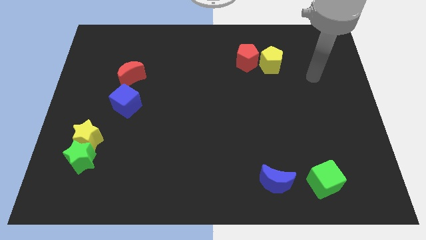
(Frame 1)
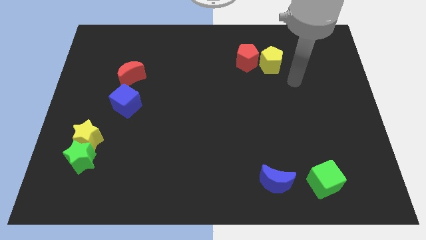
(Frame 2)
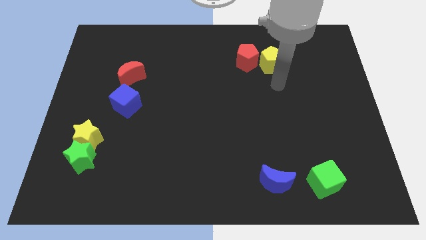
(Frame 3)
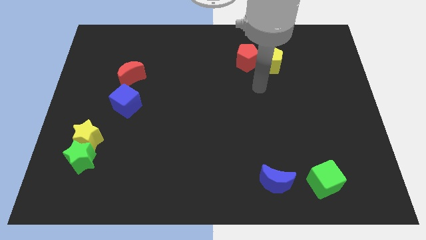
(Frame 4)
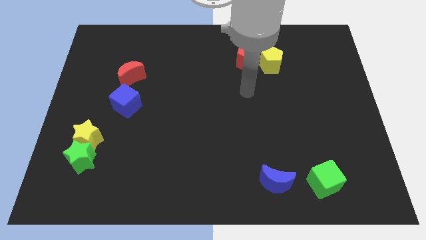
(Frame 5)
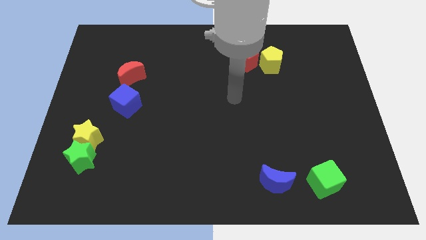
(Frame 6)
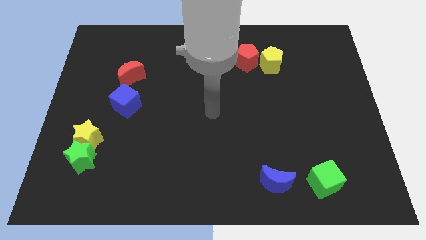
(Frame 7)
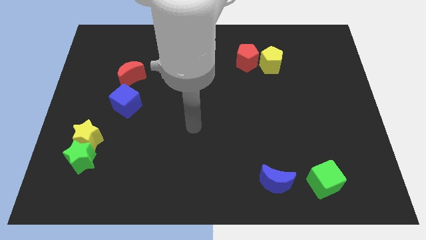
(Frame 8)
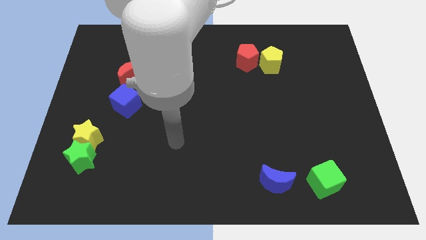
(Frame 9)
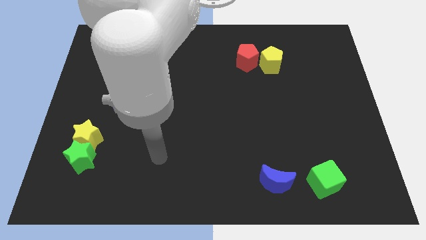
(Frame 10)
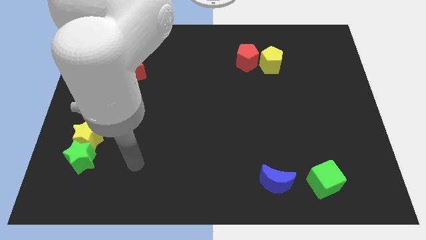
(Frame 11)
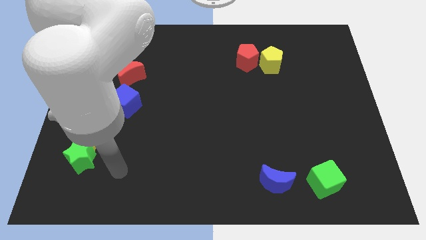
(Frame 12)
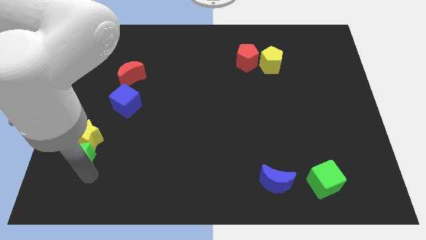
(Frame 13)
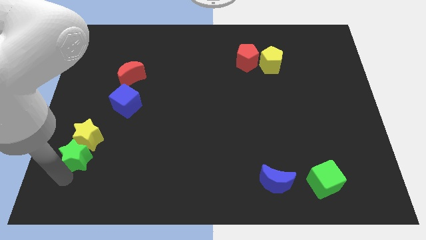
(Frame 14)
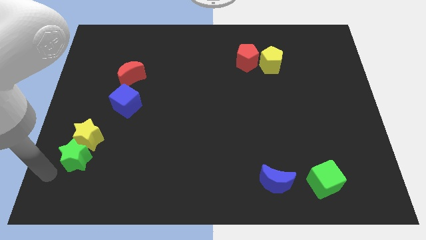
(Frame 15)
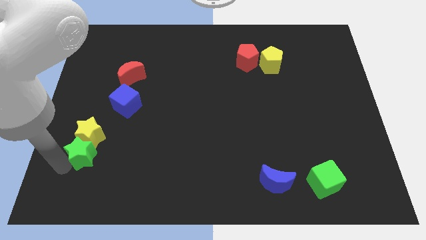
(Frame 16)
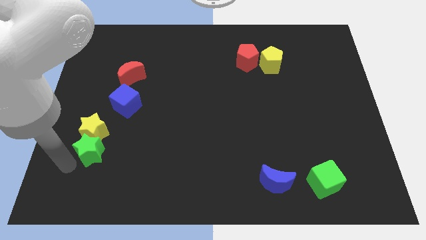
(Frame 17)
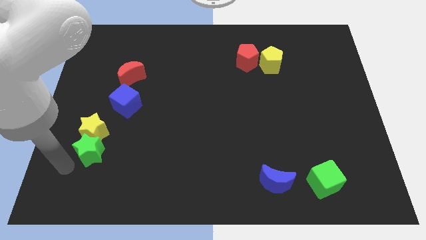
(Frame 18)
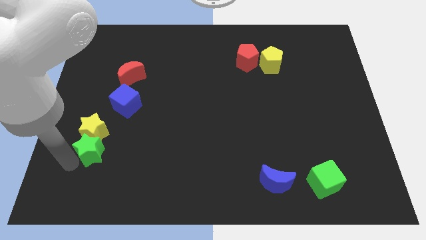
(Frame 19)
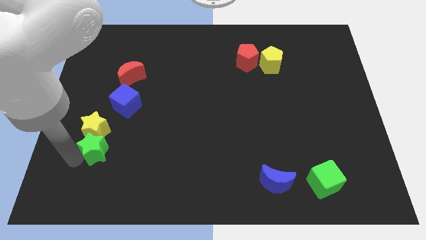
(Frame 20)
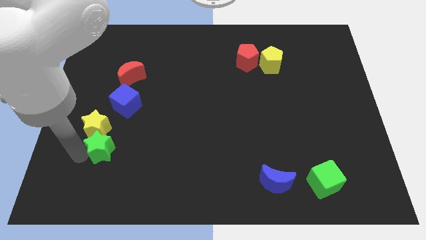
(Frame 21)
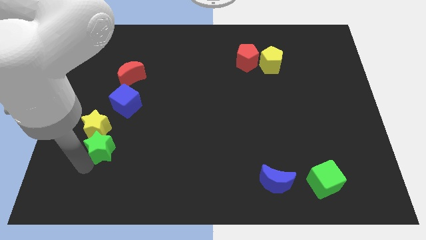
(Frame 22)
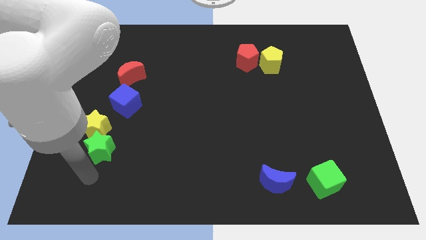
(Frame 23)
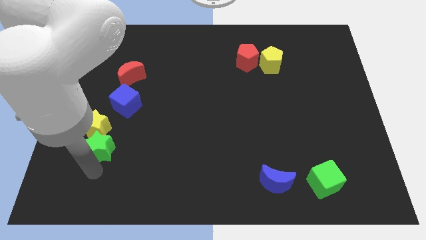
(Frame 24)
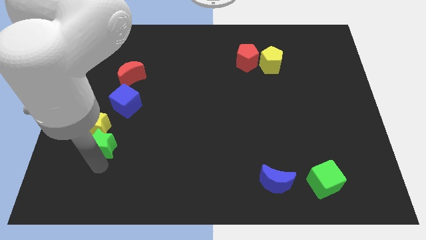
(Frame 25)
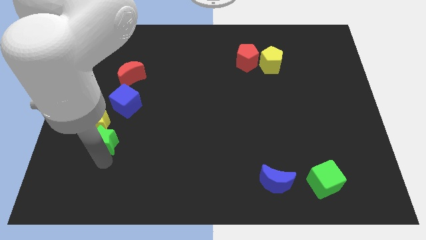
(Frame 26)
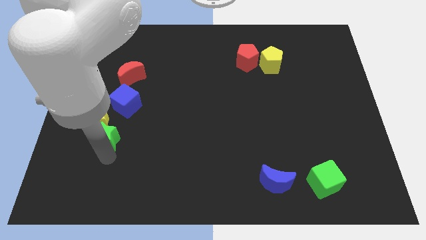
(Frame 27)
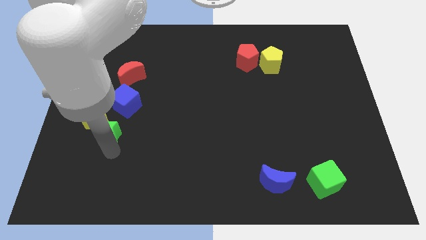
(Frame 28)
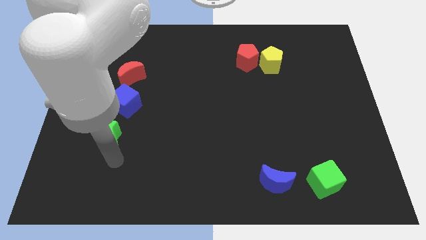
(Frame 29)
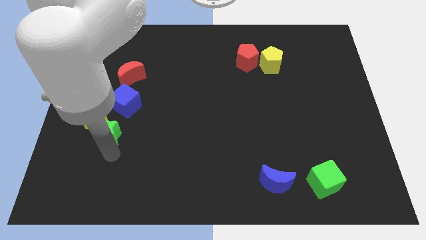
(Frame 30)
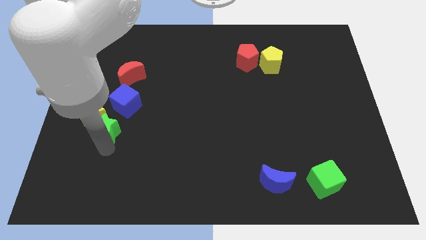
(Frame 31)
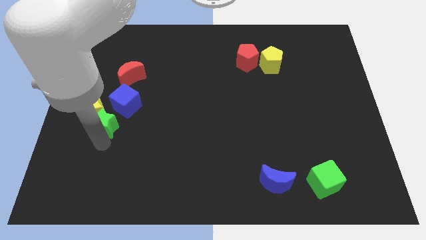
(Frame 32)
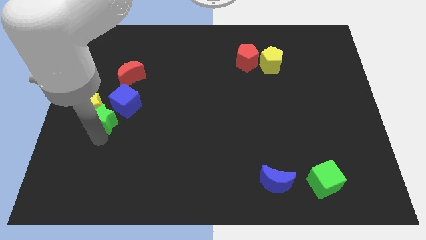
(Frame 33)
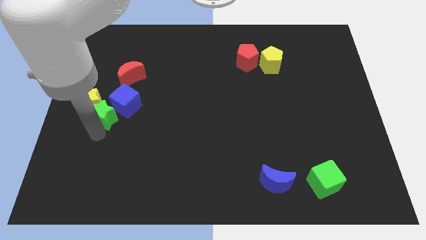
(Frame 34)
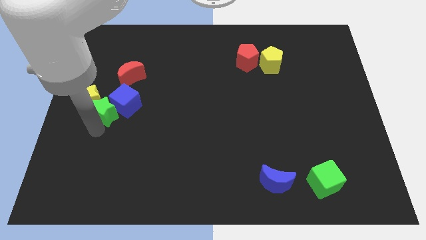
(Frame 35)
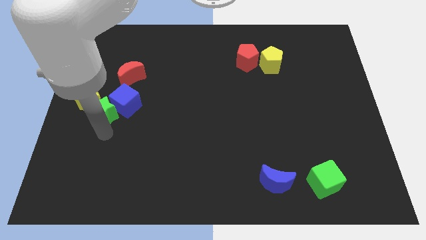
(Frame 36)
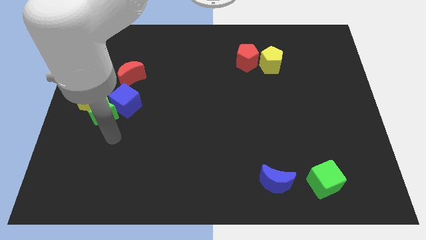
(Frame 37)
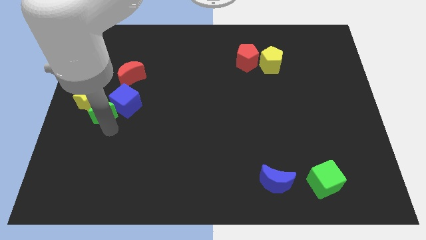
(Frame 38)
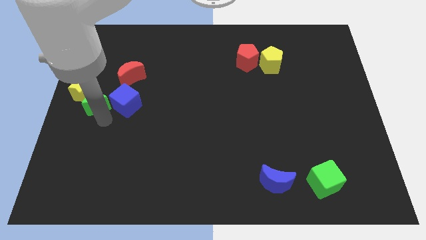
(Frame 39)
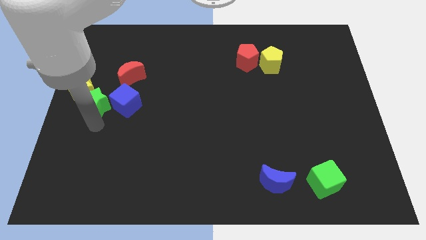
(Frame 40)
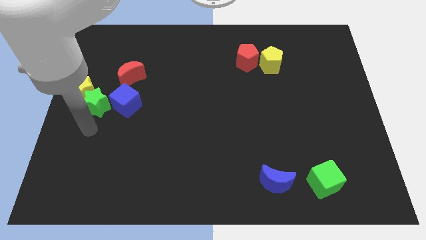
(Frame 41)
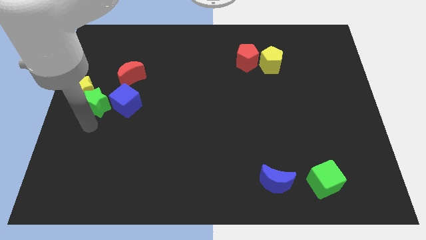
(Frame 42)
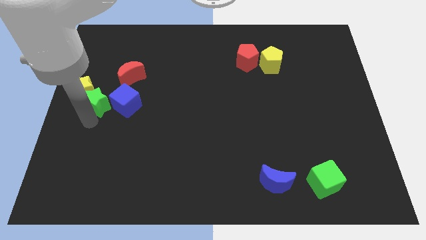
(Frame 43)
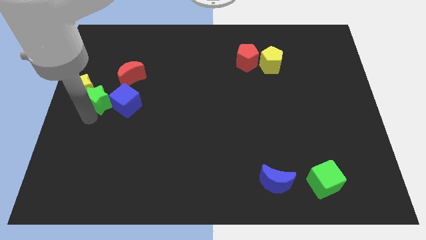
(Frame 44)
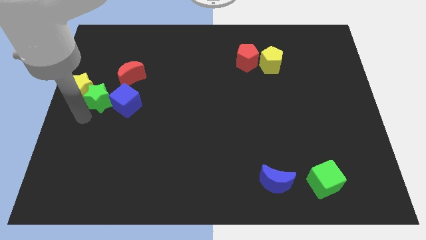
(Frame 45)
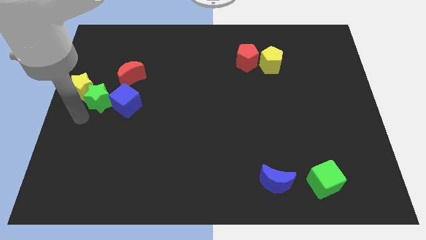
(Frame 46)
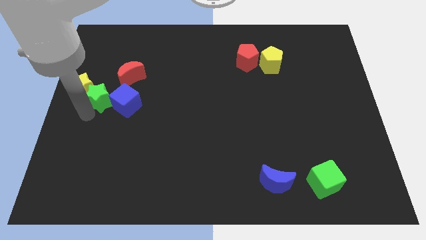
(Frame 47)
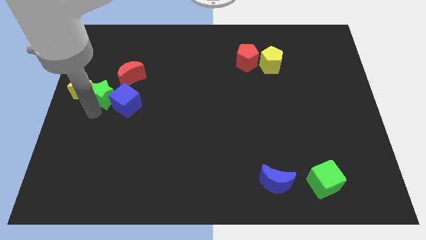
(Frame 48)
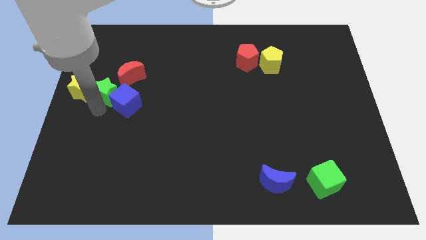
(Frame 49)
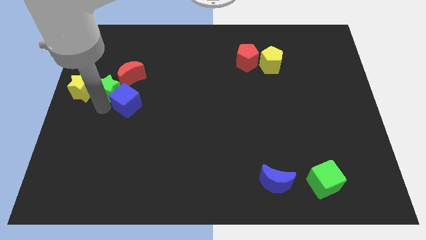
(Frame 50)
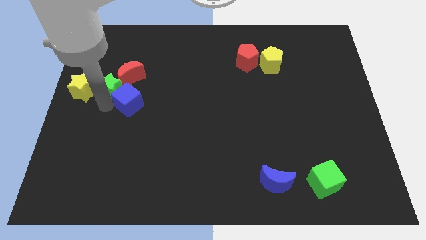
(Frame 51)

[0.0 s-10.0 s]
slide the green star towards the red moon

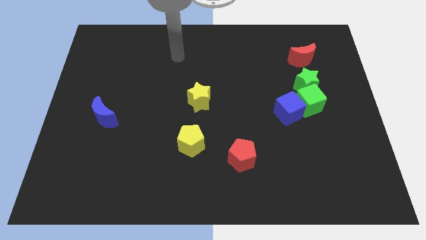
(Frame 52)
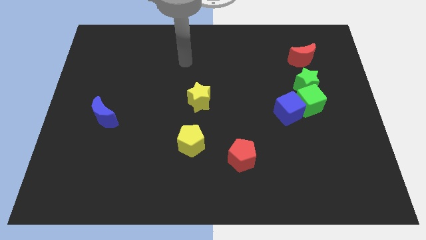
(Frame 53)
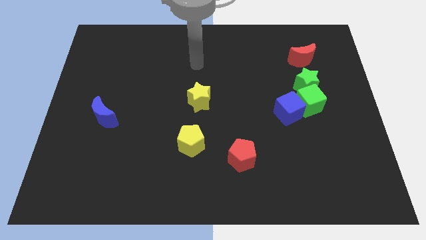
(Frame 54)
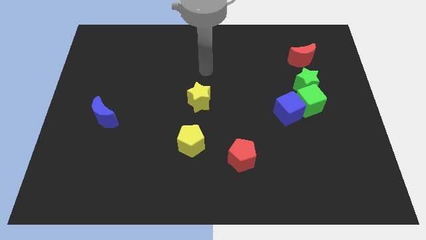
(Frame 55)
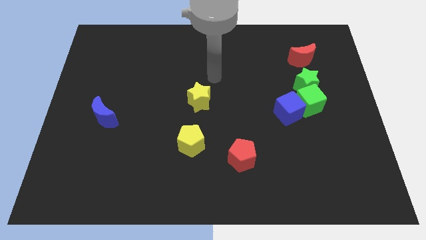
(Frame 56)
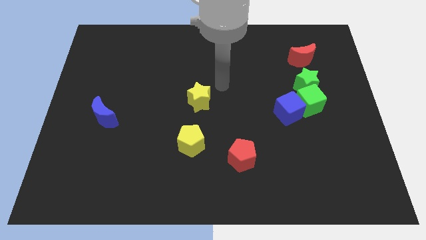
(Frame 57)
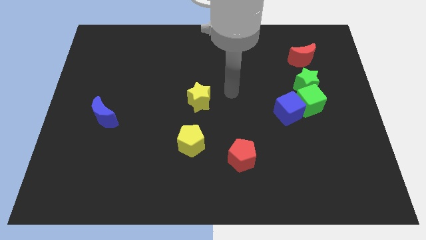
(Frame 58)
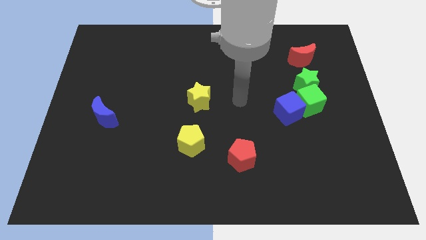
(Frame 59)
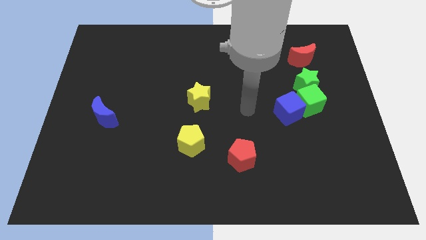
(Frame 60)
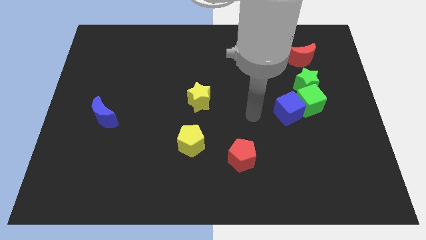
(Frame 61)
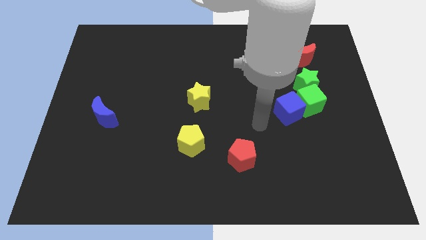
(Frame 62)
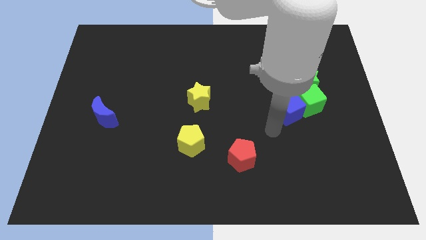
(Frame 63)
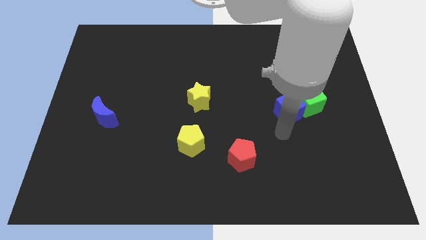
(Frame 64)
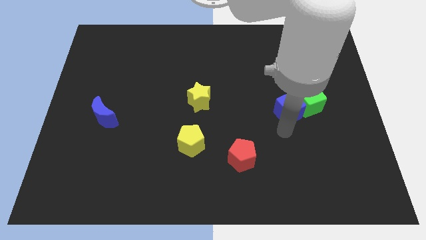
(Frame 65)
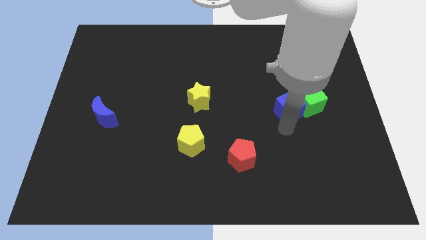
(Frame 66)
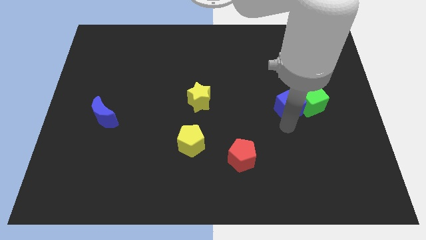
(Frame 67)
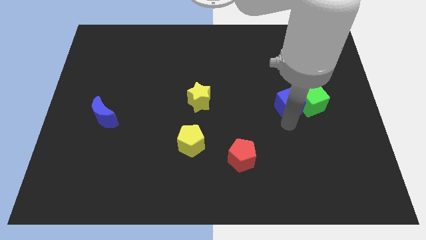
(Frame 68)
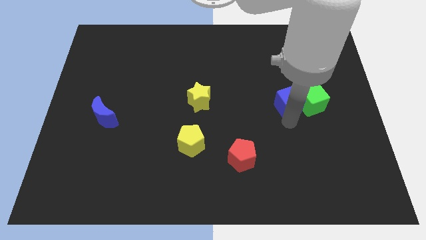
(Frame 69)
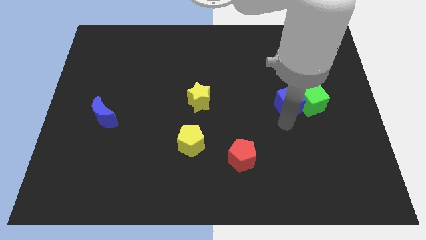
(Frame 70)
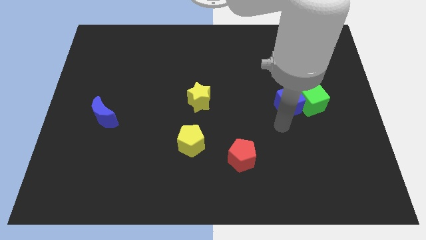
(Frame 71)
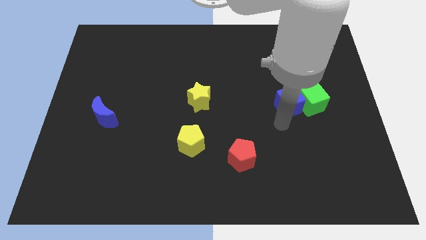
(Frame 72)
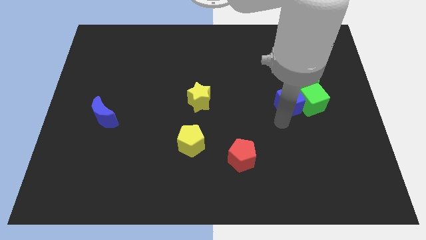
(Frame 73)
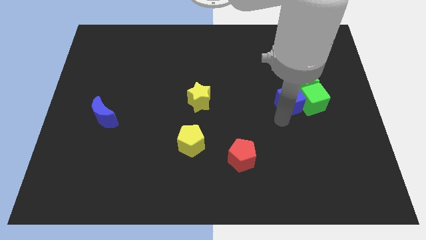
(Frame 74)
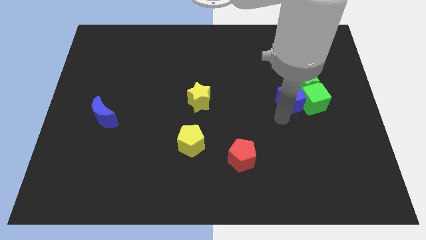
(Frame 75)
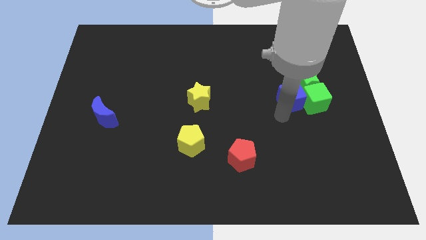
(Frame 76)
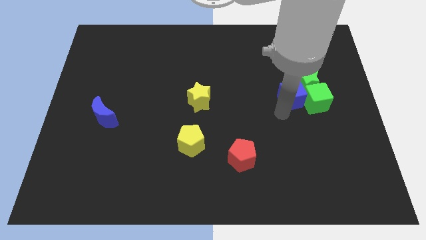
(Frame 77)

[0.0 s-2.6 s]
put the blue cube close to the green star

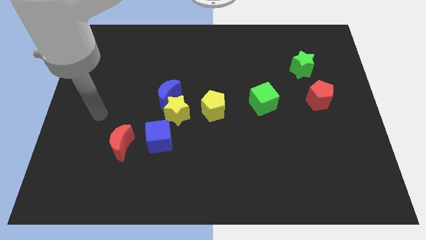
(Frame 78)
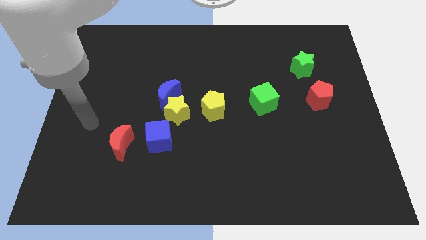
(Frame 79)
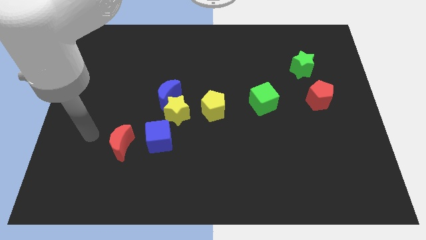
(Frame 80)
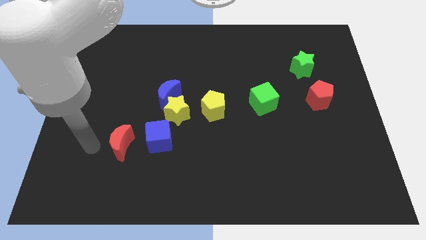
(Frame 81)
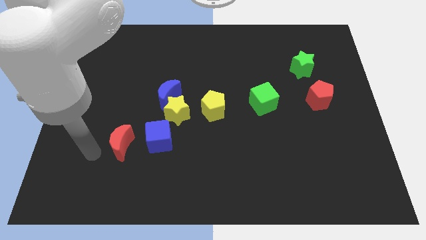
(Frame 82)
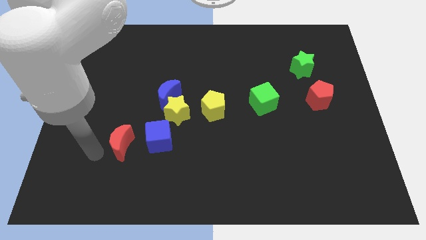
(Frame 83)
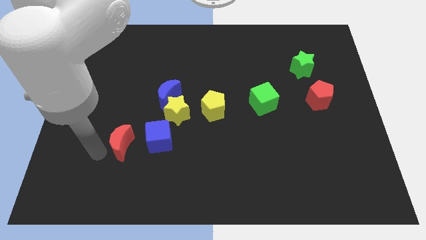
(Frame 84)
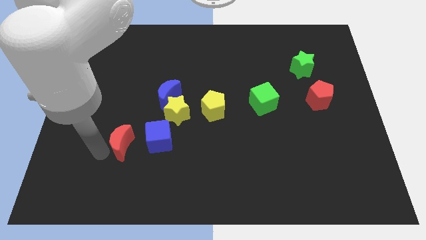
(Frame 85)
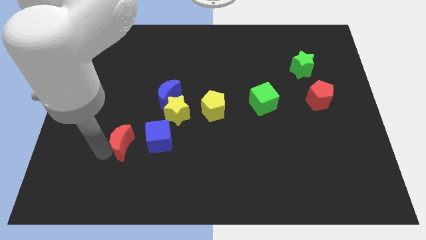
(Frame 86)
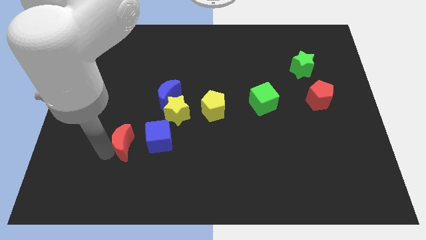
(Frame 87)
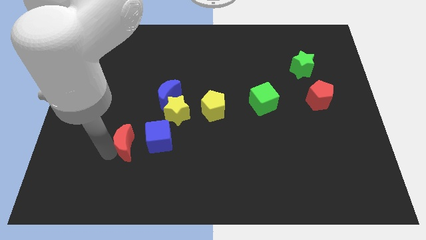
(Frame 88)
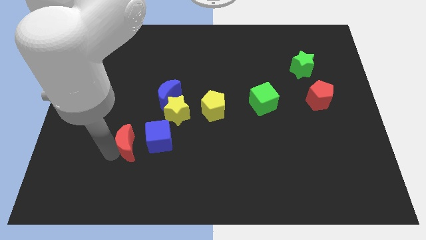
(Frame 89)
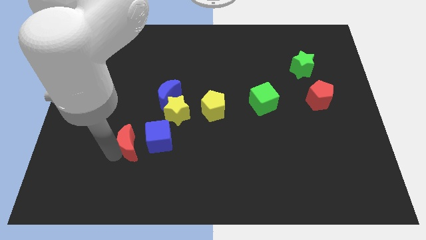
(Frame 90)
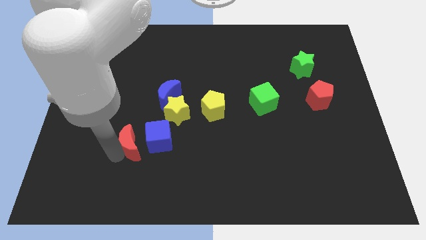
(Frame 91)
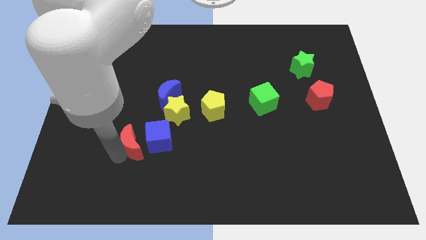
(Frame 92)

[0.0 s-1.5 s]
push the red moon towards the blue cube
